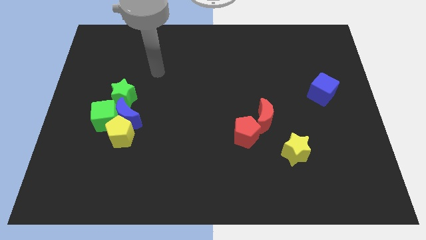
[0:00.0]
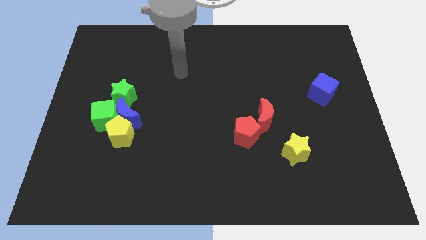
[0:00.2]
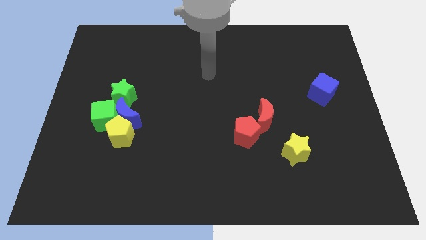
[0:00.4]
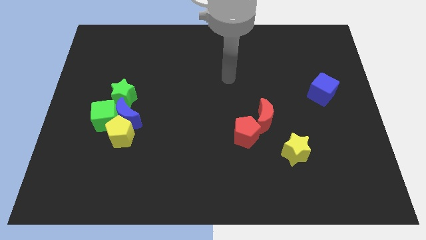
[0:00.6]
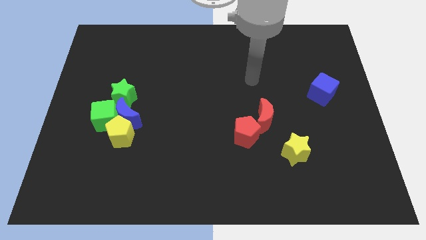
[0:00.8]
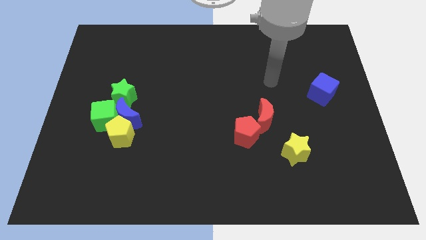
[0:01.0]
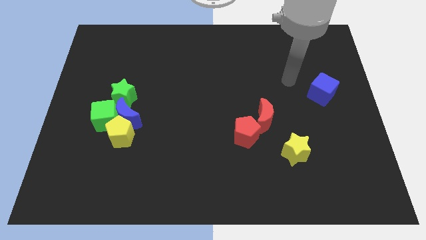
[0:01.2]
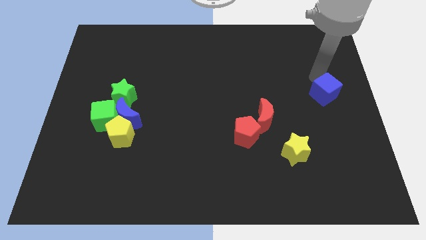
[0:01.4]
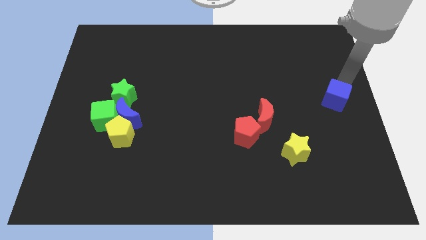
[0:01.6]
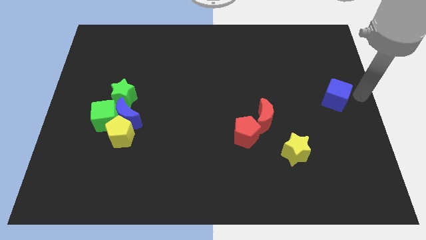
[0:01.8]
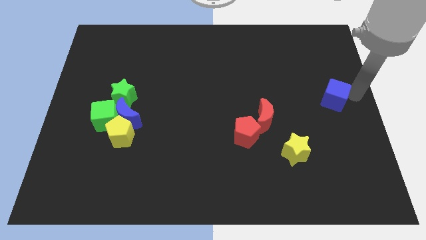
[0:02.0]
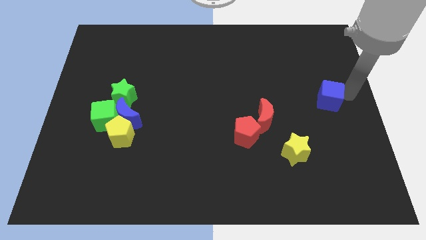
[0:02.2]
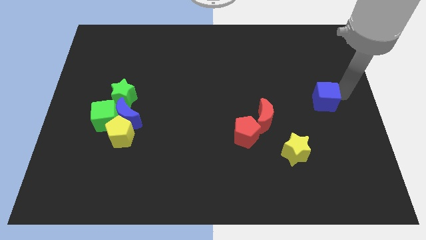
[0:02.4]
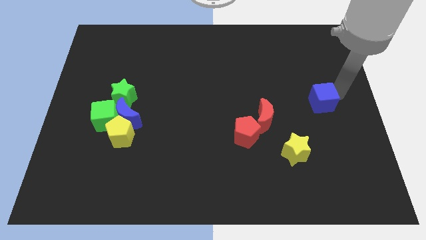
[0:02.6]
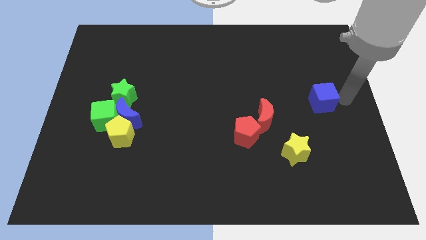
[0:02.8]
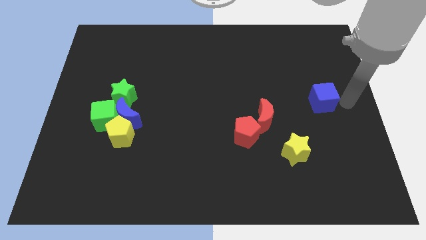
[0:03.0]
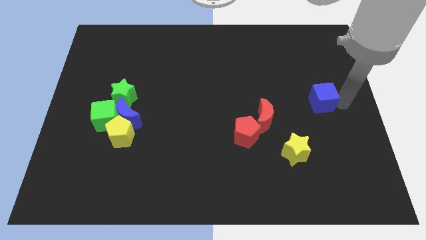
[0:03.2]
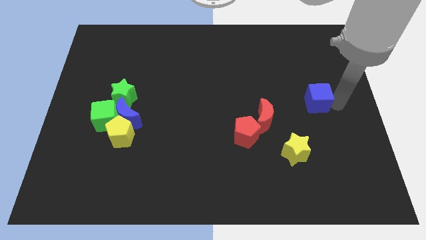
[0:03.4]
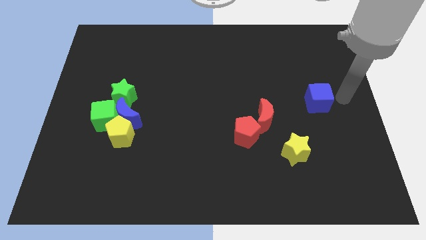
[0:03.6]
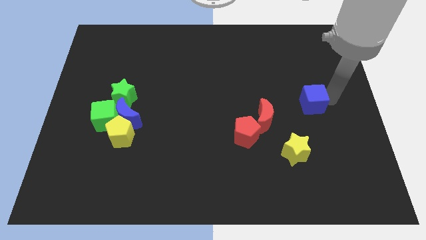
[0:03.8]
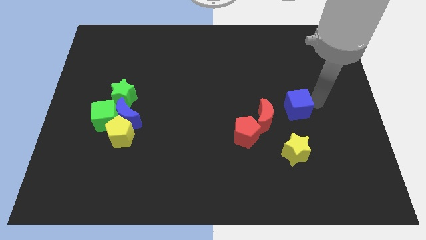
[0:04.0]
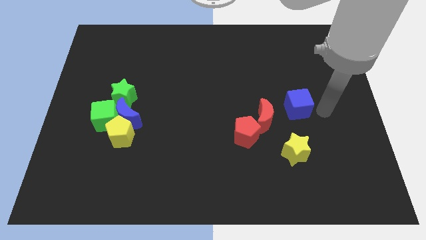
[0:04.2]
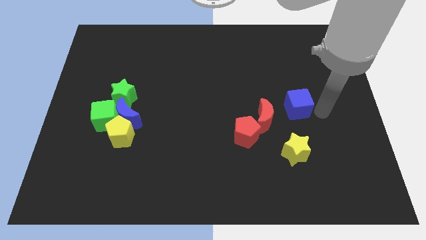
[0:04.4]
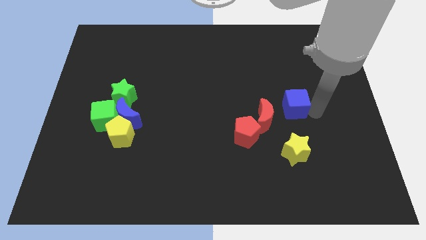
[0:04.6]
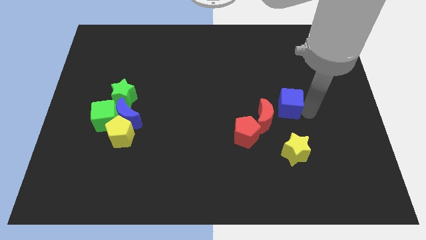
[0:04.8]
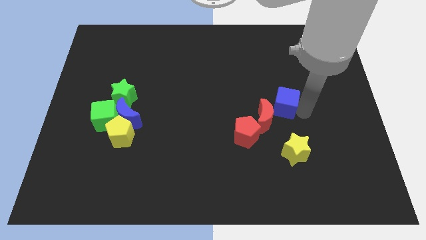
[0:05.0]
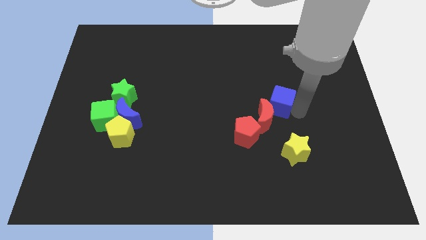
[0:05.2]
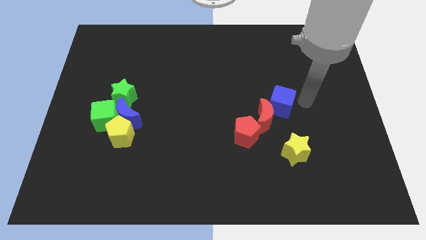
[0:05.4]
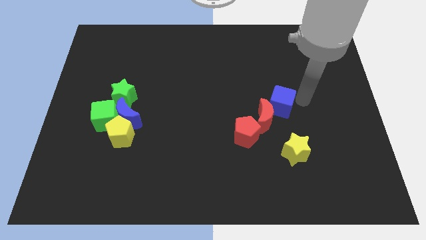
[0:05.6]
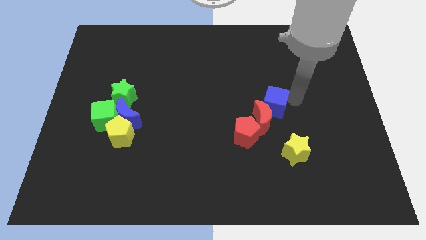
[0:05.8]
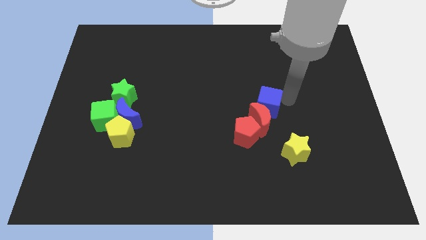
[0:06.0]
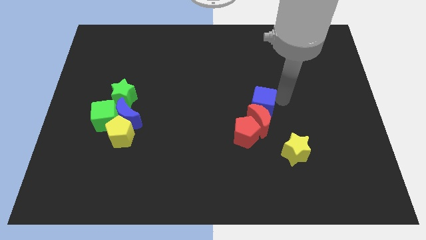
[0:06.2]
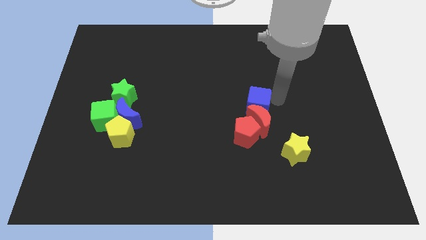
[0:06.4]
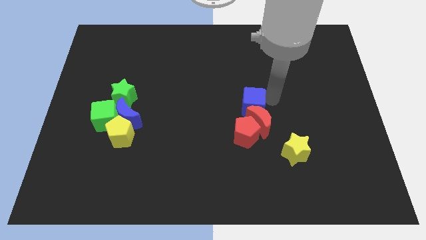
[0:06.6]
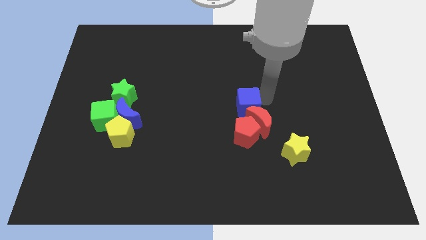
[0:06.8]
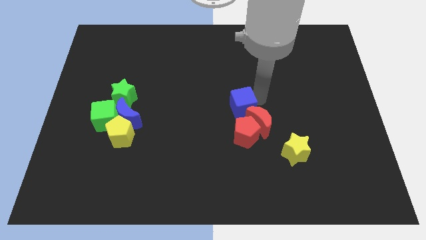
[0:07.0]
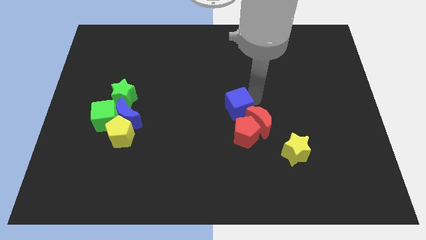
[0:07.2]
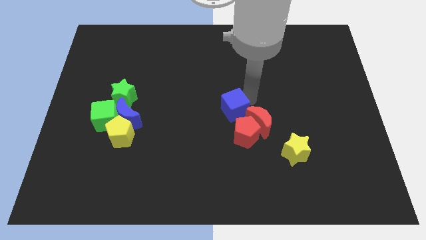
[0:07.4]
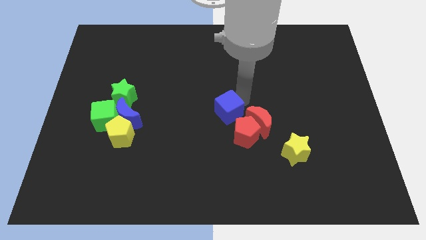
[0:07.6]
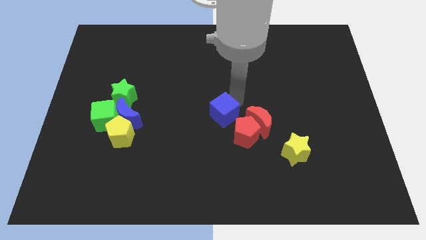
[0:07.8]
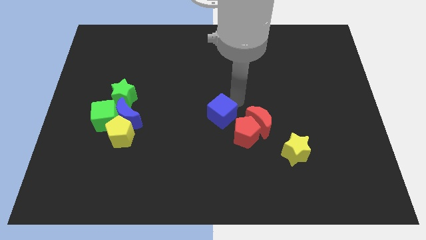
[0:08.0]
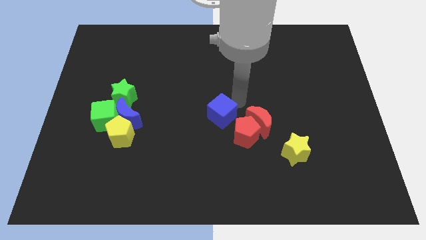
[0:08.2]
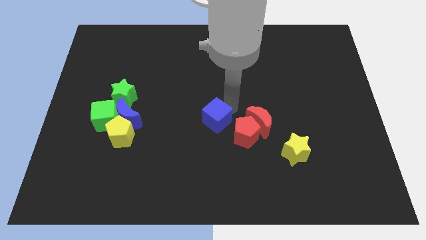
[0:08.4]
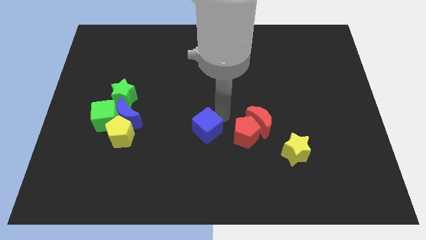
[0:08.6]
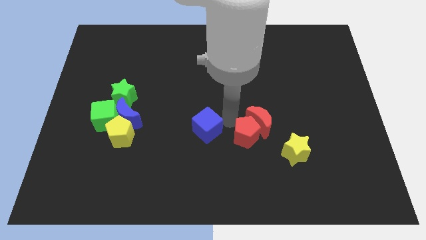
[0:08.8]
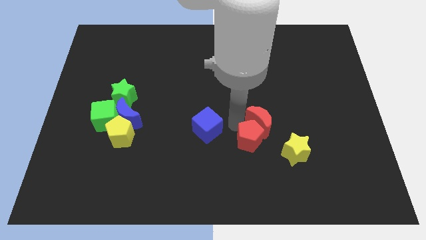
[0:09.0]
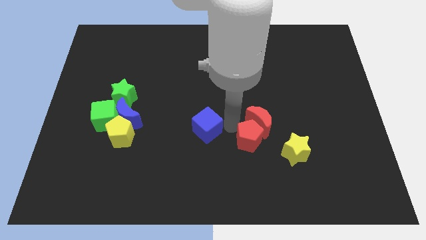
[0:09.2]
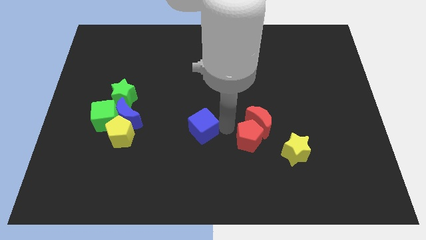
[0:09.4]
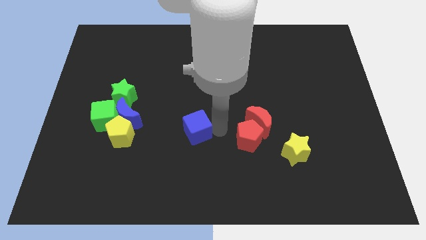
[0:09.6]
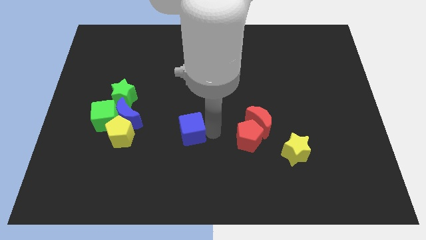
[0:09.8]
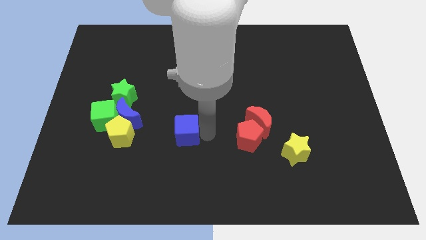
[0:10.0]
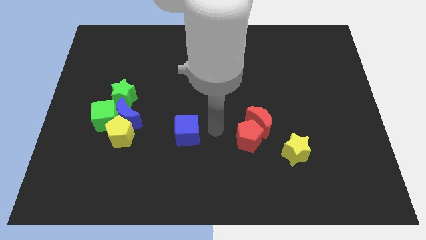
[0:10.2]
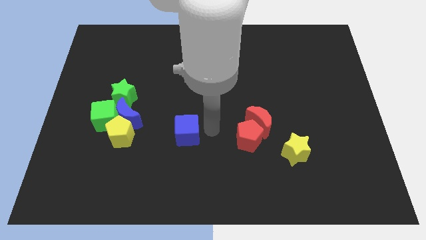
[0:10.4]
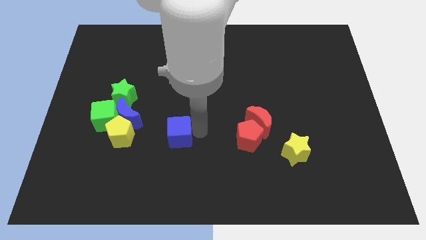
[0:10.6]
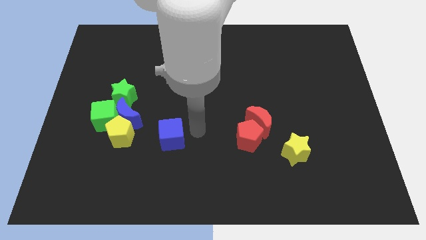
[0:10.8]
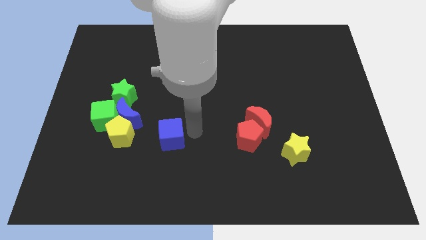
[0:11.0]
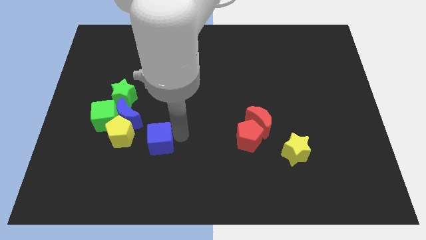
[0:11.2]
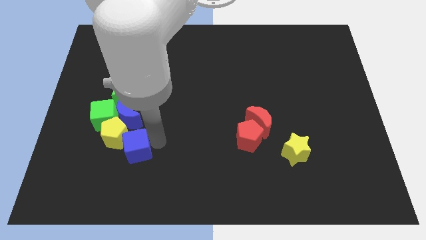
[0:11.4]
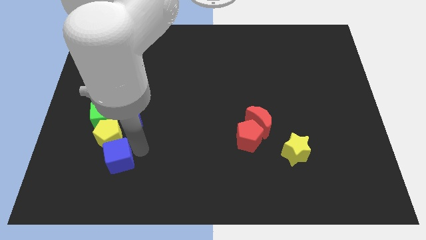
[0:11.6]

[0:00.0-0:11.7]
slide the blue cube to the bottom side of the green cube

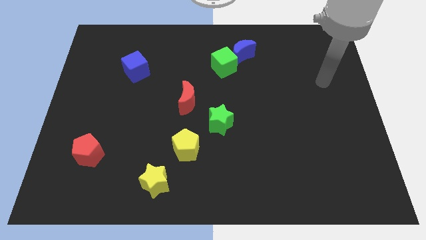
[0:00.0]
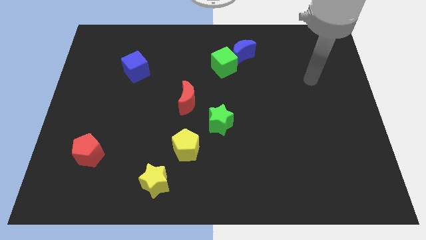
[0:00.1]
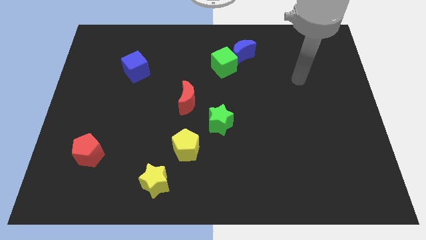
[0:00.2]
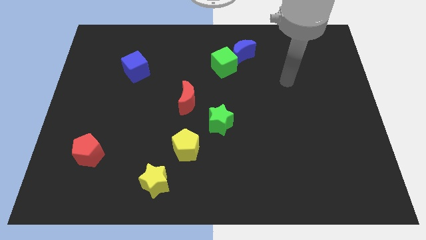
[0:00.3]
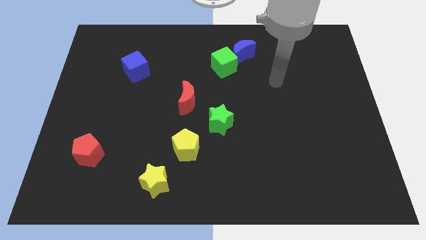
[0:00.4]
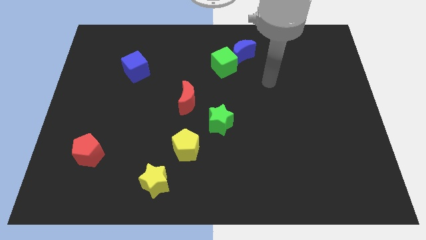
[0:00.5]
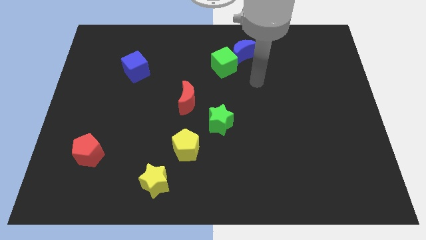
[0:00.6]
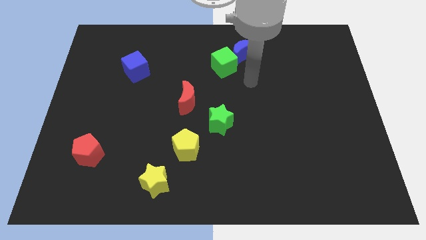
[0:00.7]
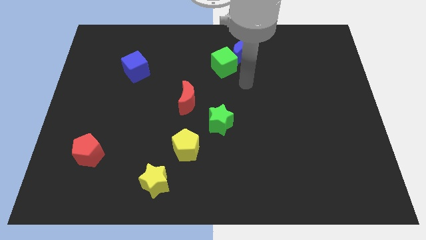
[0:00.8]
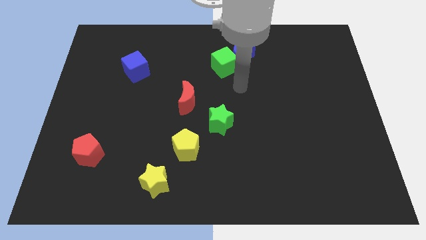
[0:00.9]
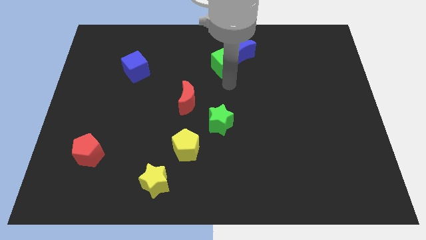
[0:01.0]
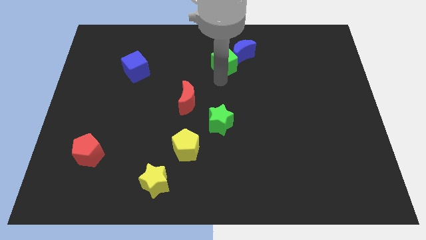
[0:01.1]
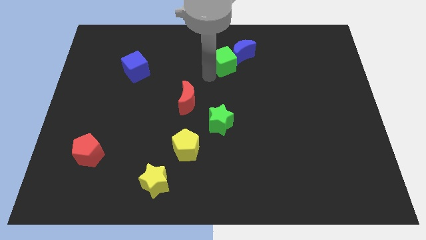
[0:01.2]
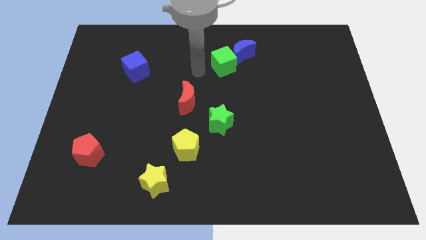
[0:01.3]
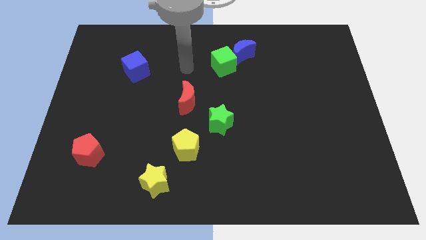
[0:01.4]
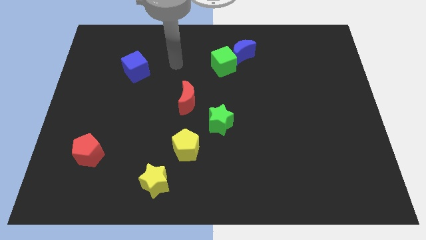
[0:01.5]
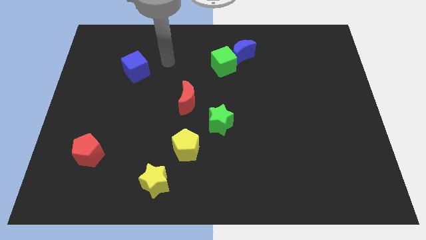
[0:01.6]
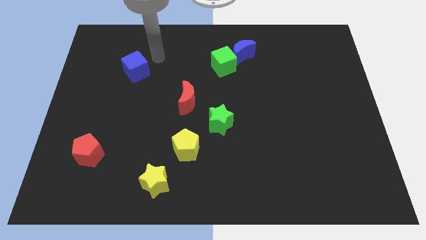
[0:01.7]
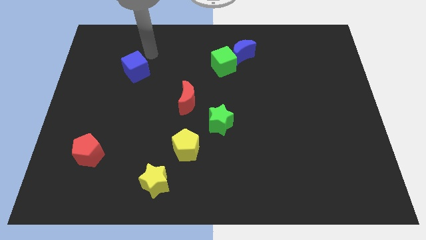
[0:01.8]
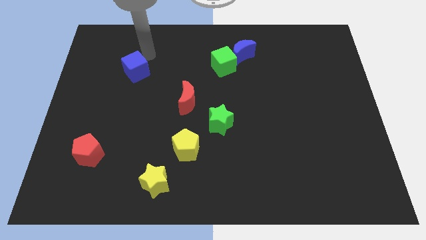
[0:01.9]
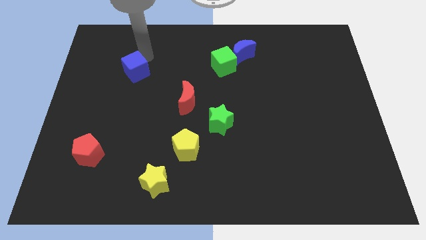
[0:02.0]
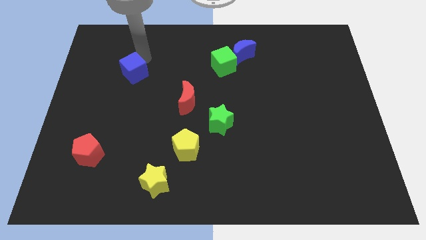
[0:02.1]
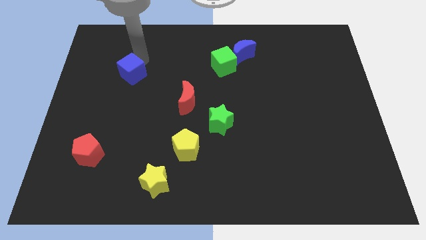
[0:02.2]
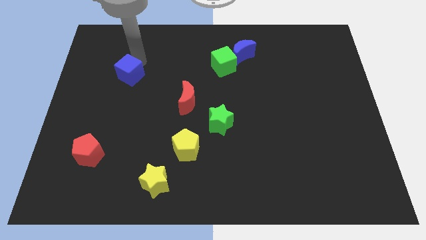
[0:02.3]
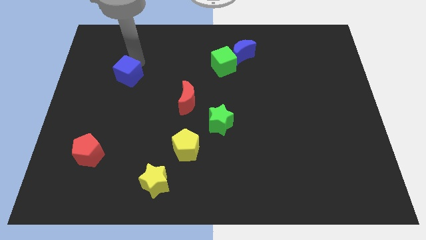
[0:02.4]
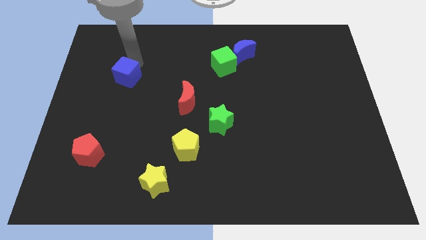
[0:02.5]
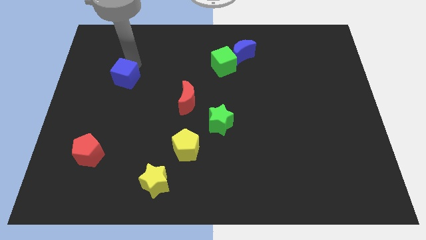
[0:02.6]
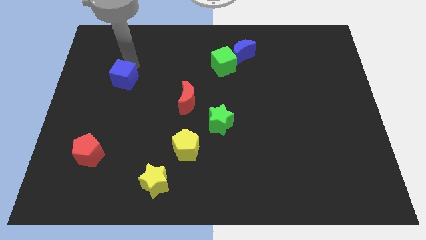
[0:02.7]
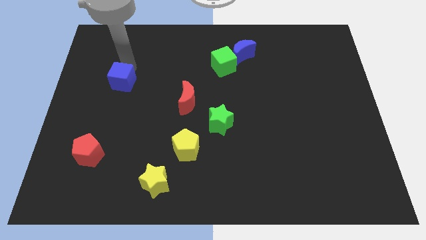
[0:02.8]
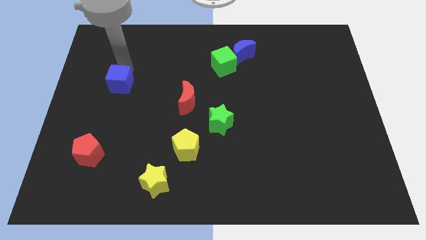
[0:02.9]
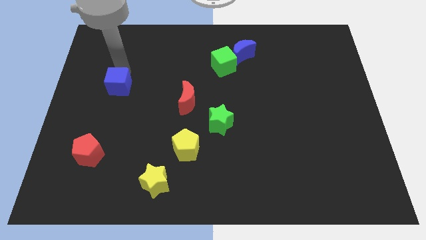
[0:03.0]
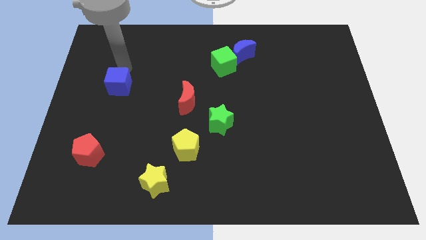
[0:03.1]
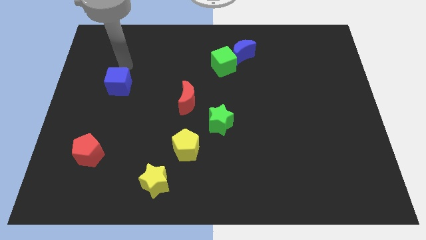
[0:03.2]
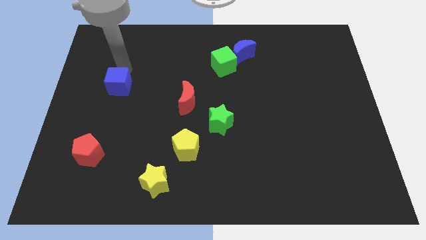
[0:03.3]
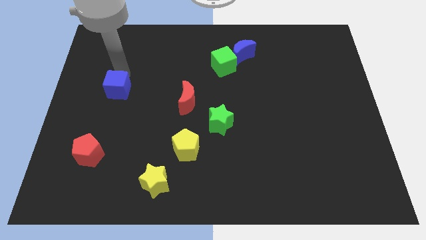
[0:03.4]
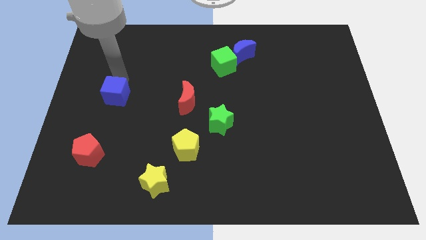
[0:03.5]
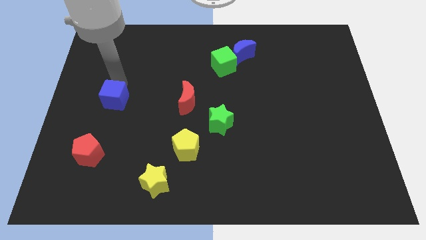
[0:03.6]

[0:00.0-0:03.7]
push the blue cube to the top of the red pentagon
